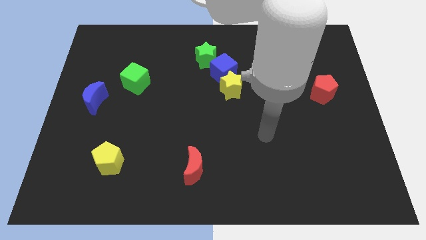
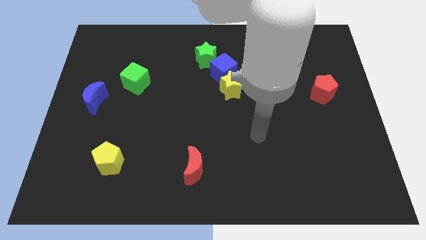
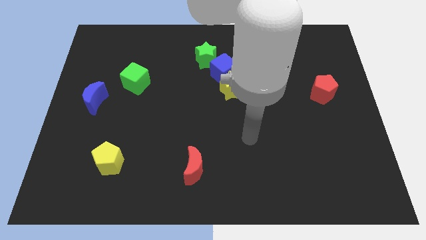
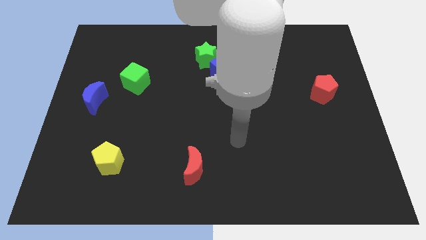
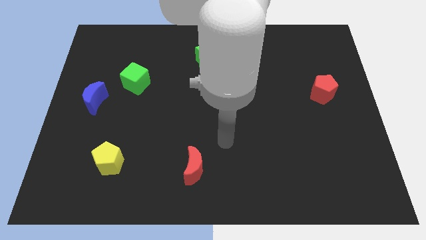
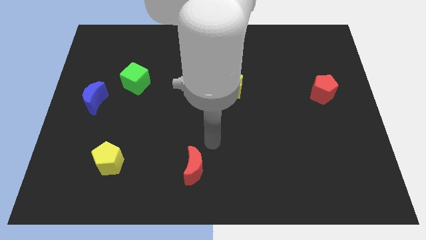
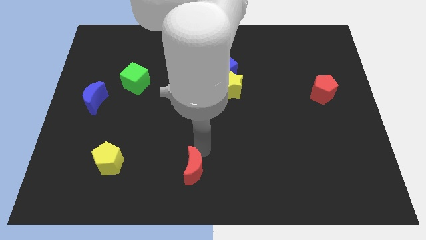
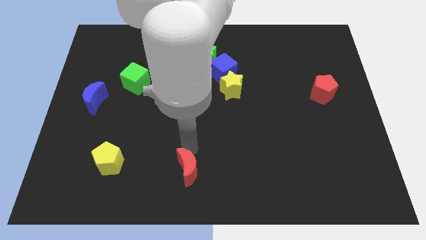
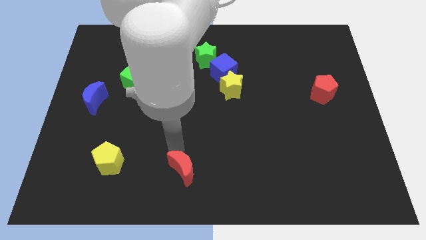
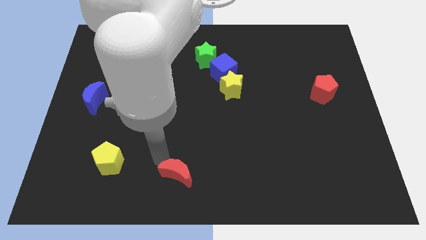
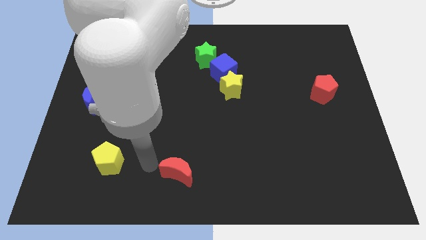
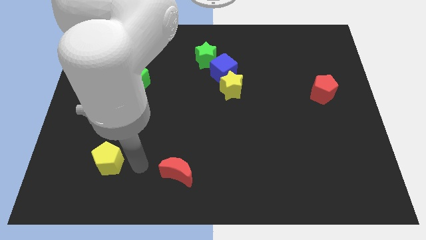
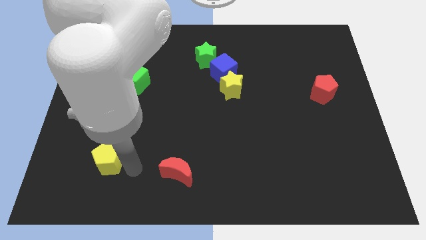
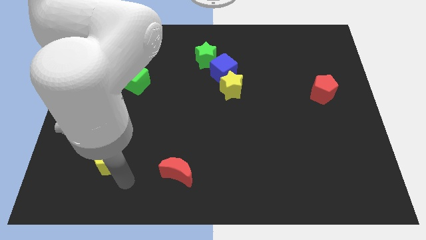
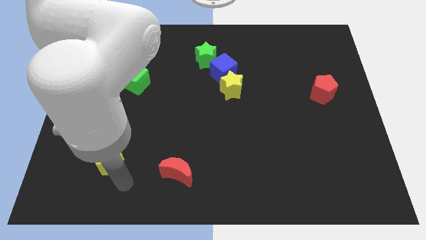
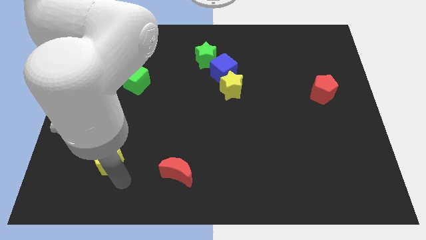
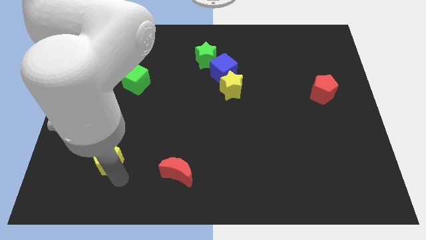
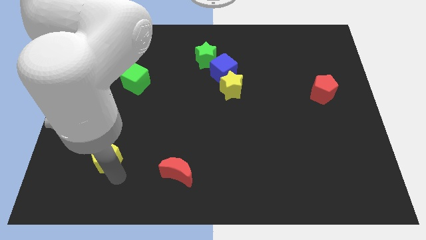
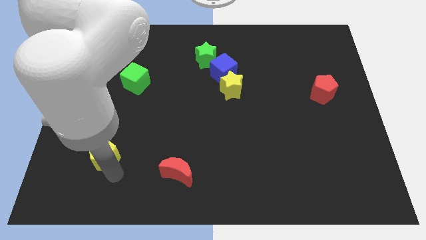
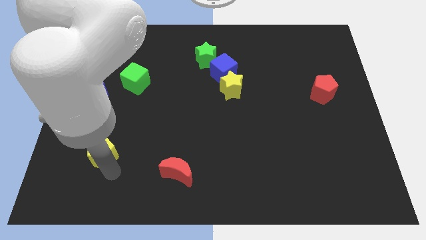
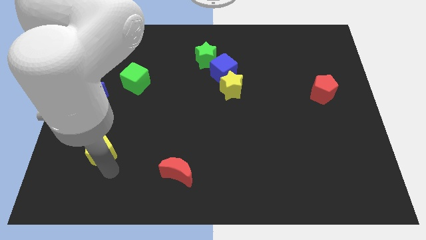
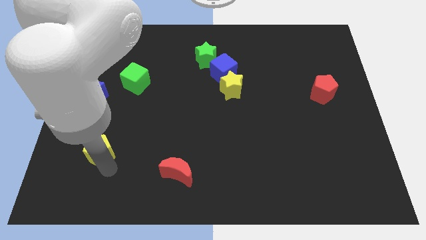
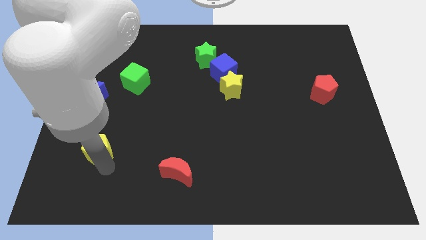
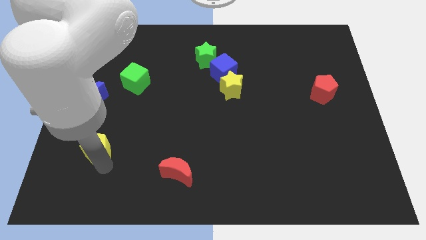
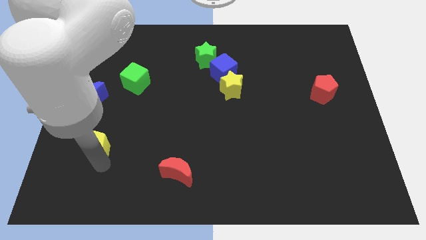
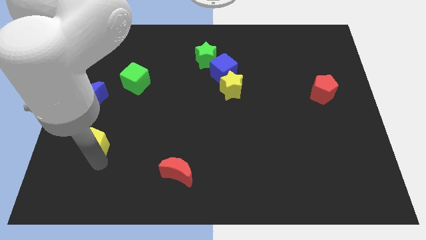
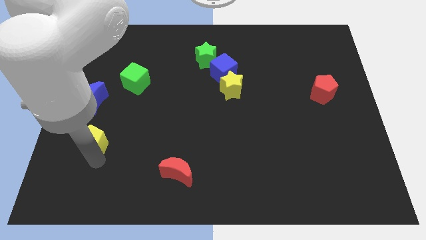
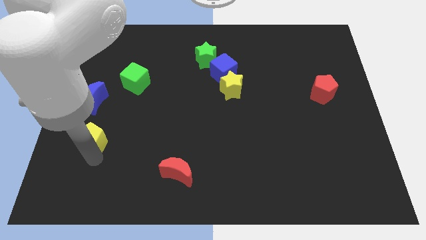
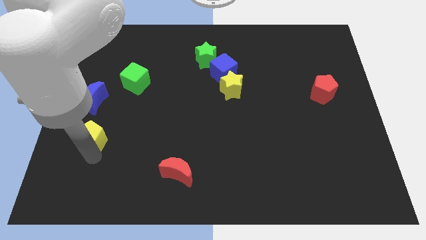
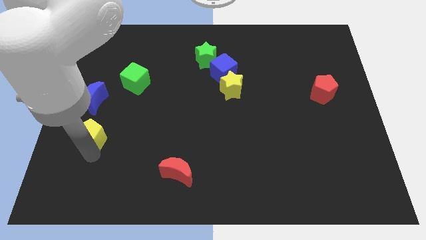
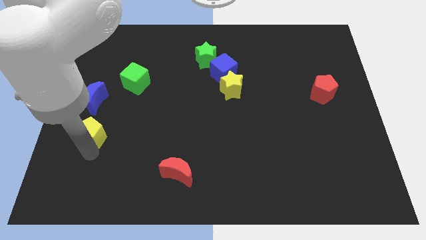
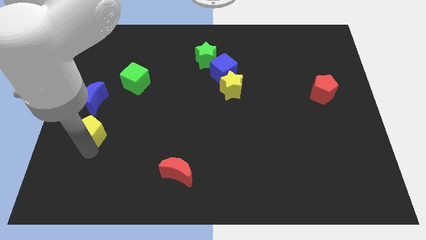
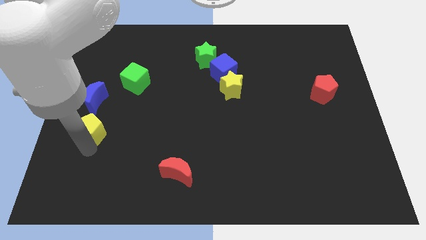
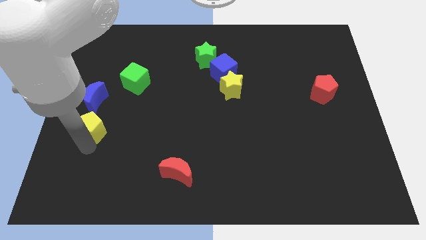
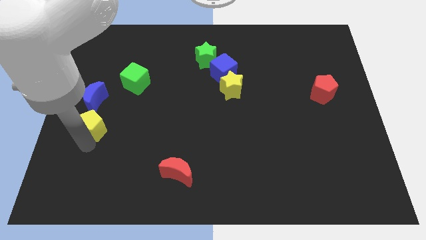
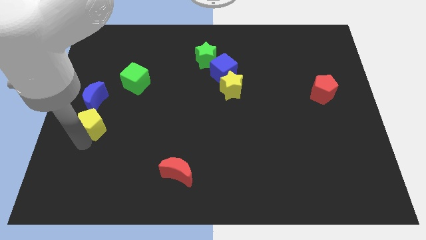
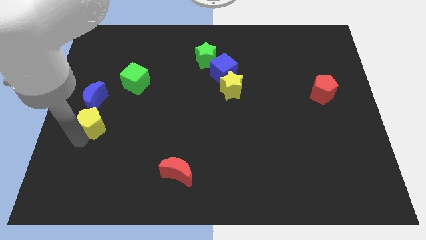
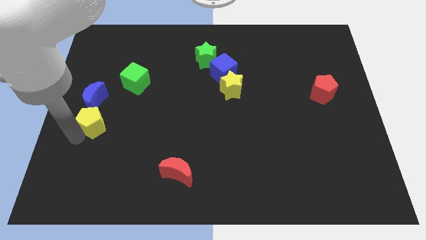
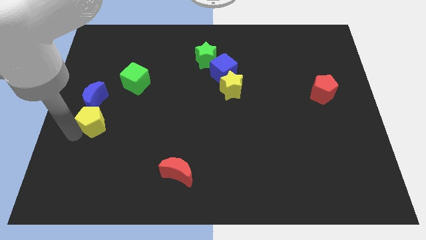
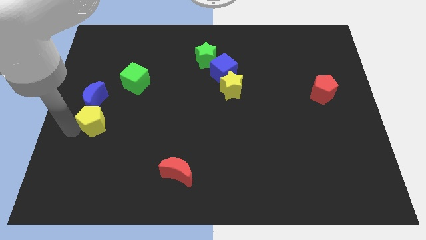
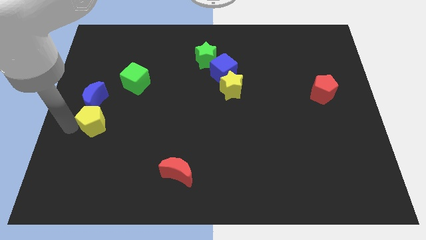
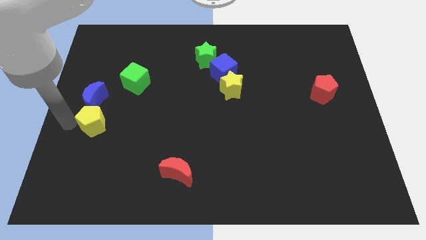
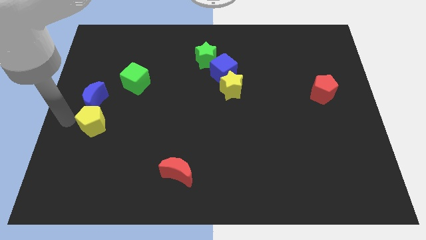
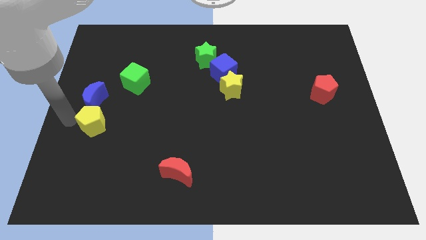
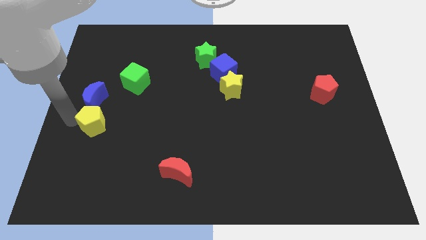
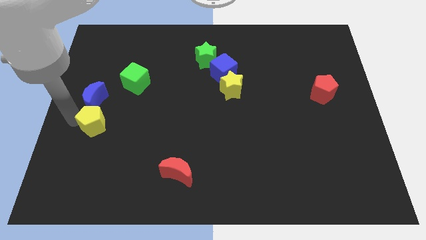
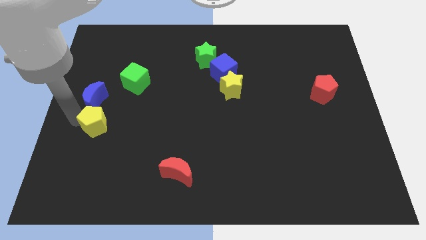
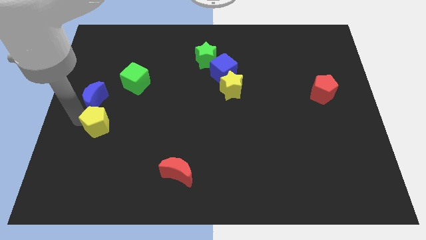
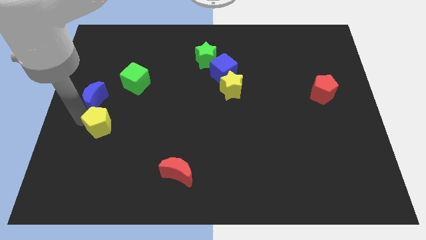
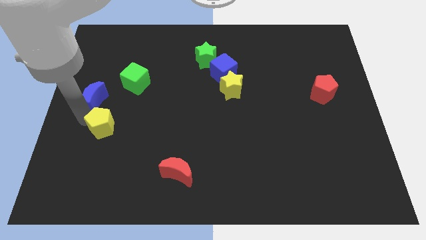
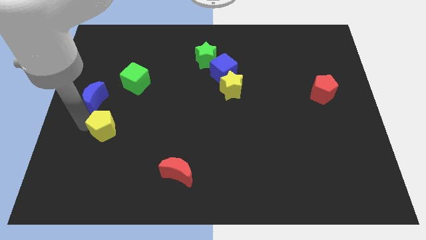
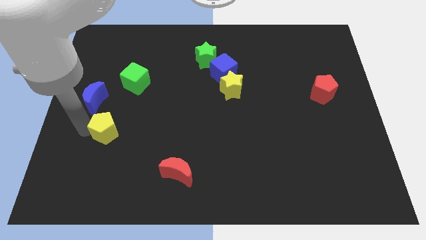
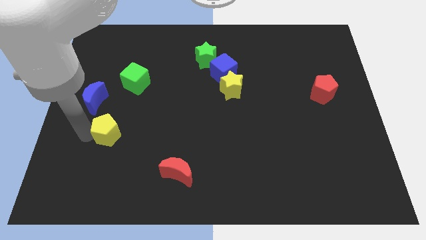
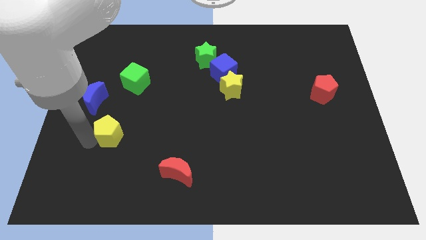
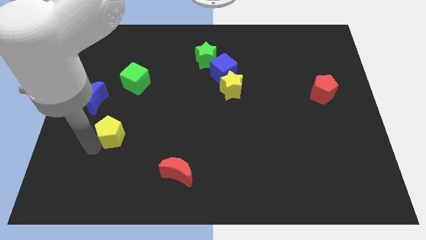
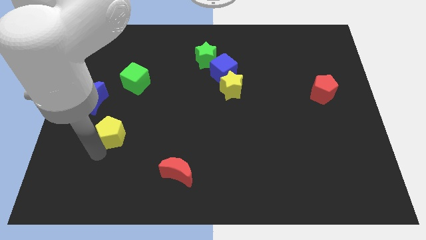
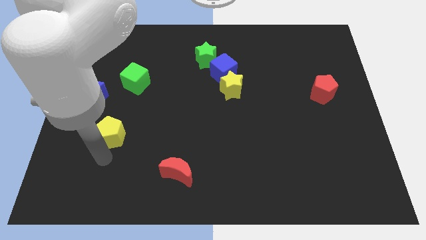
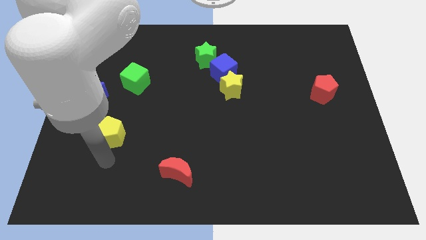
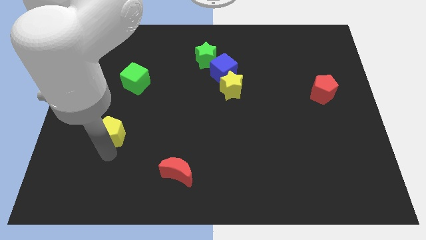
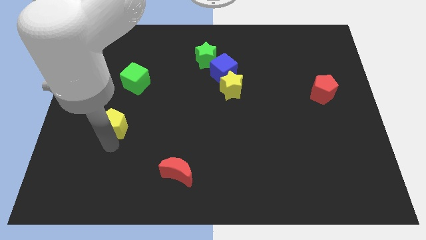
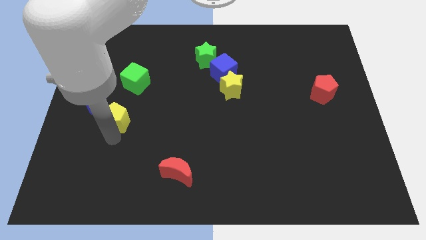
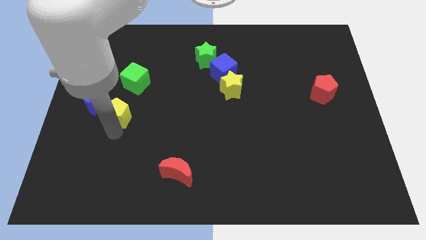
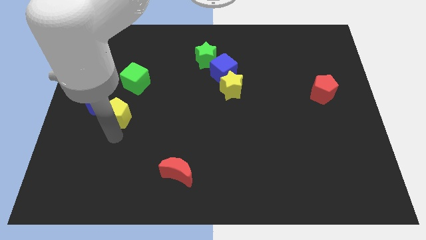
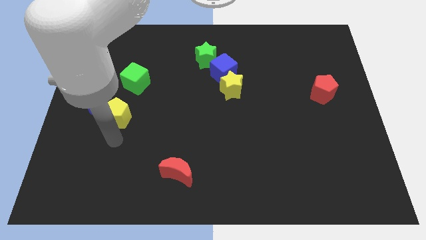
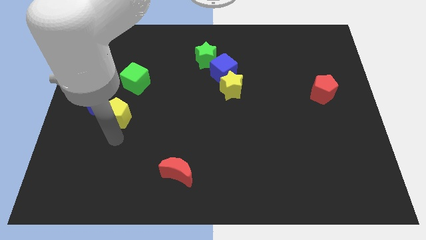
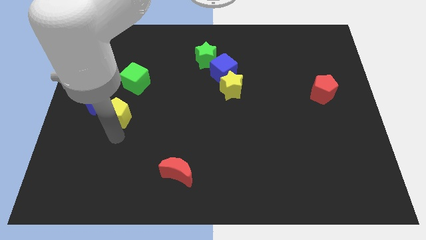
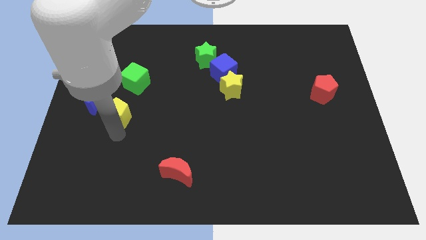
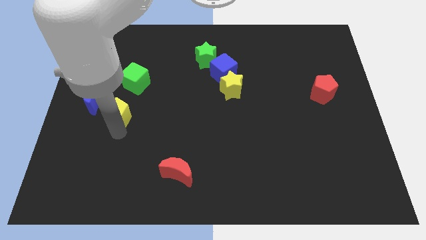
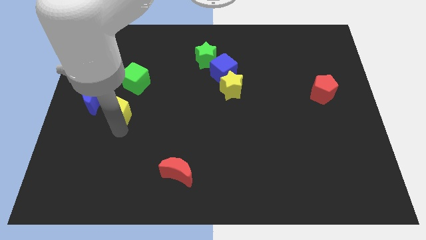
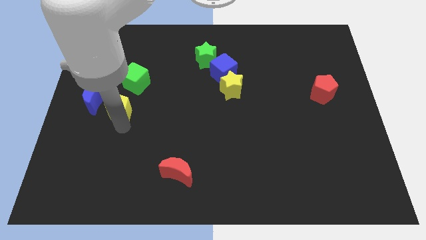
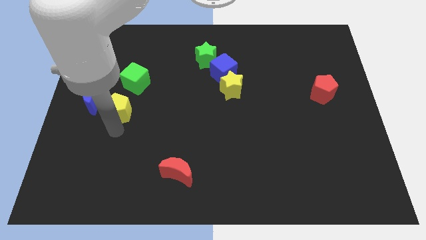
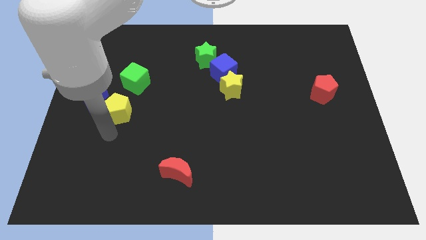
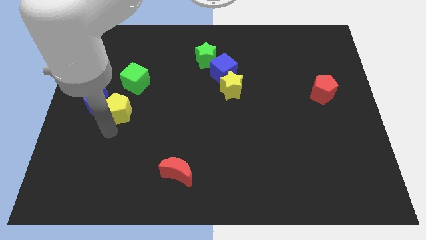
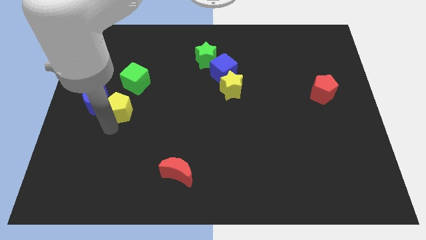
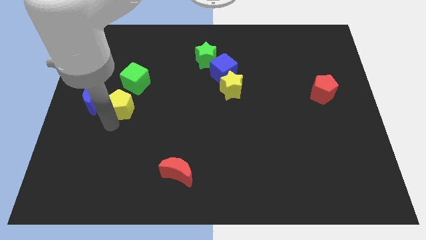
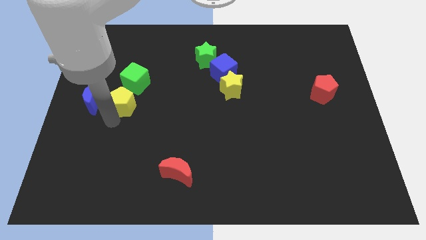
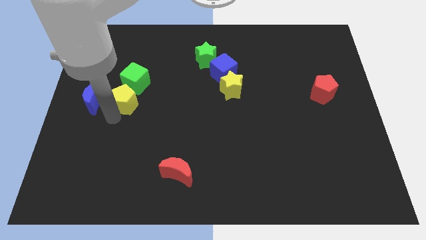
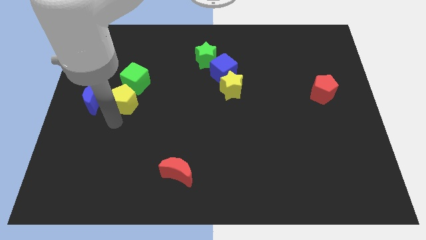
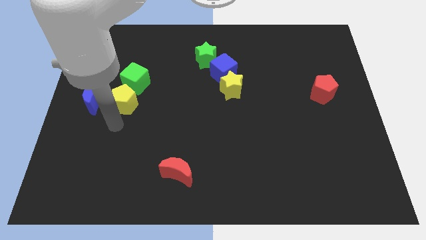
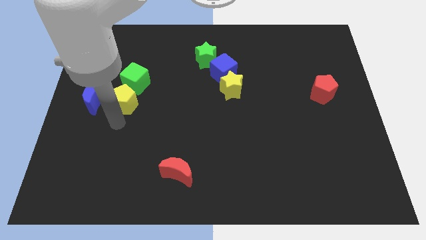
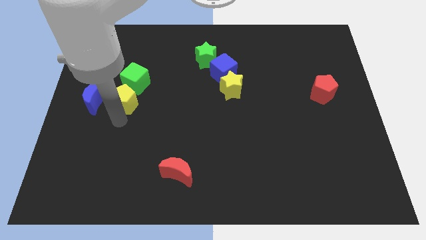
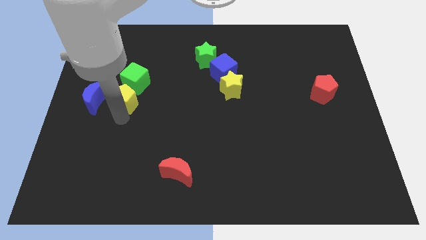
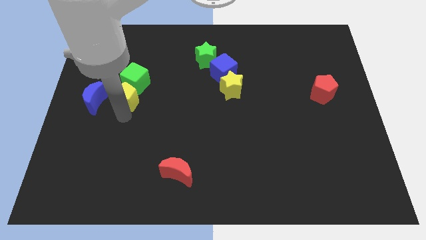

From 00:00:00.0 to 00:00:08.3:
move the yellow pentagon to the green cube
